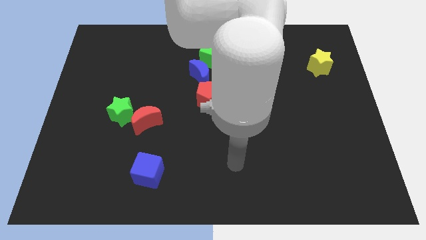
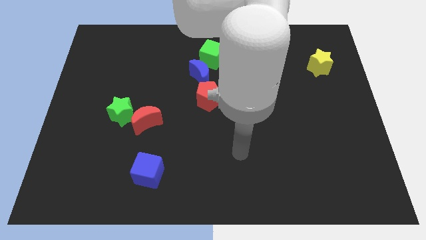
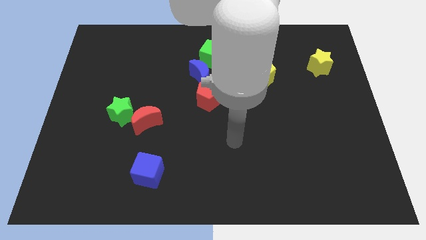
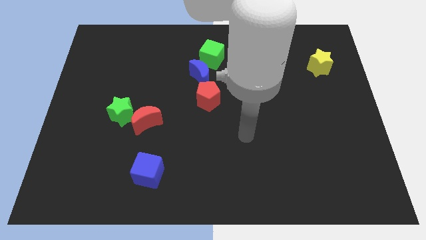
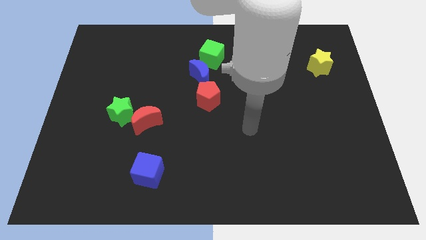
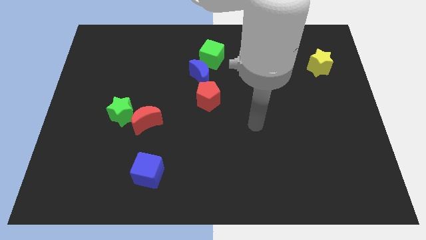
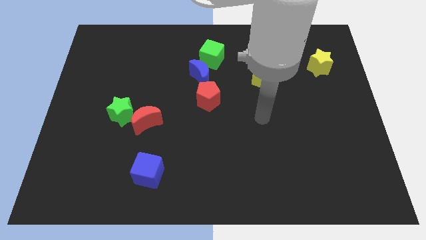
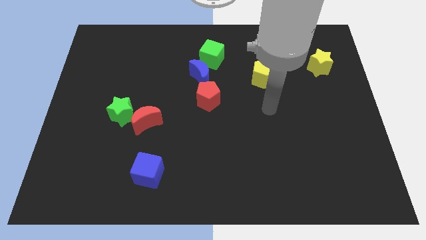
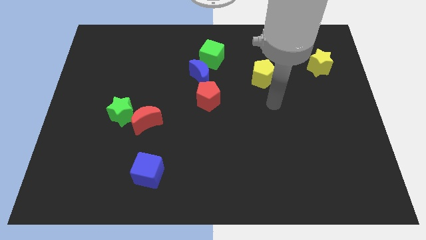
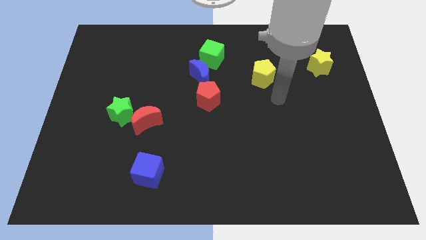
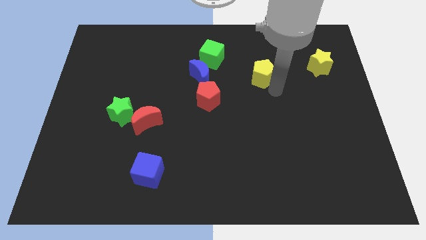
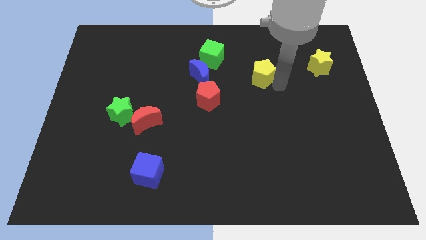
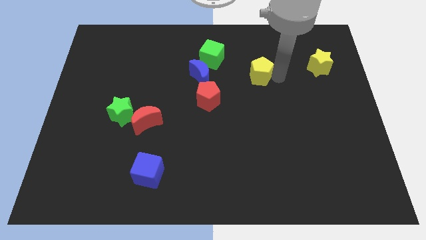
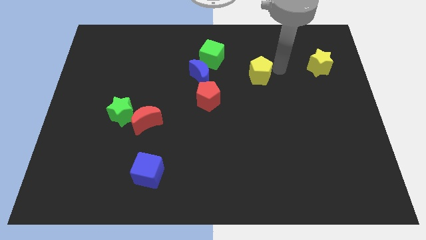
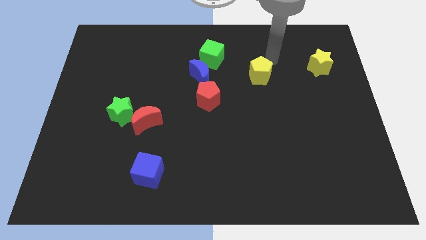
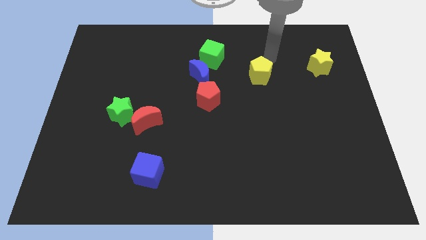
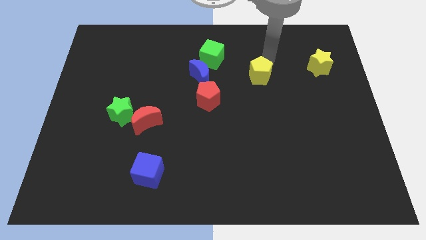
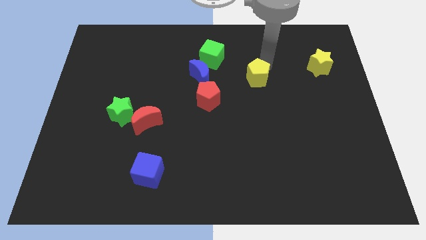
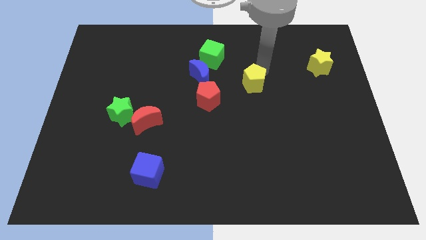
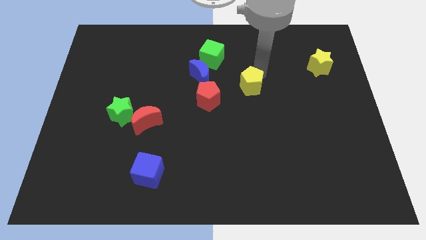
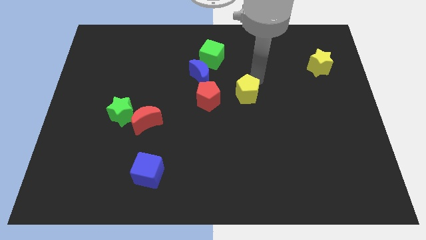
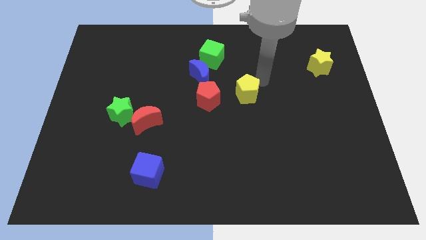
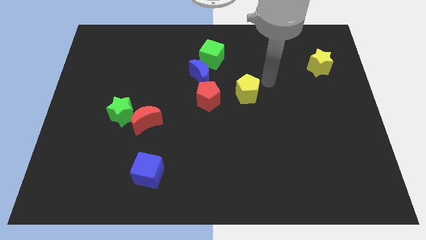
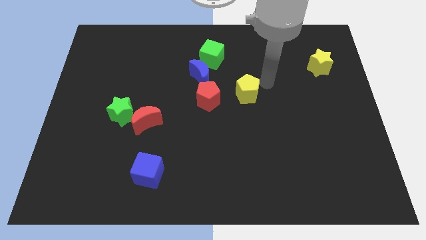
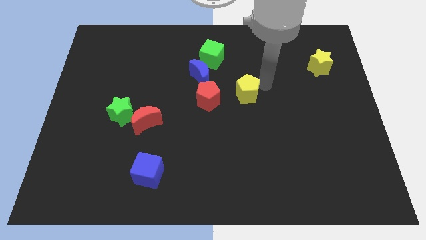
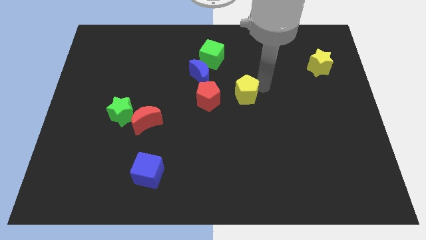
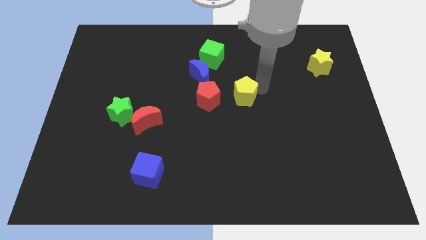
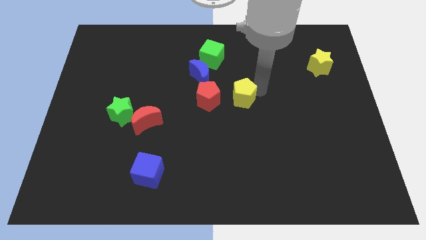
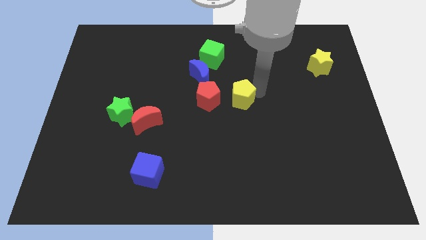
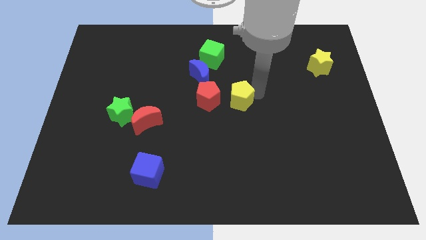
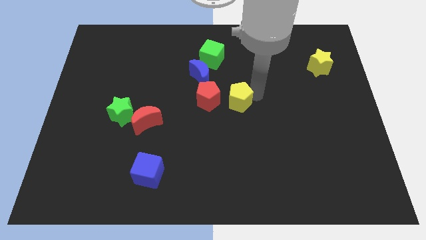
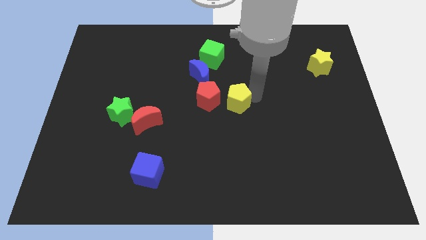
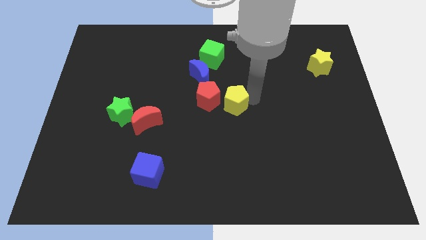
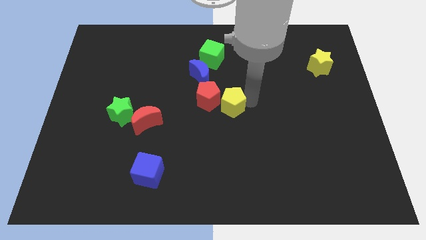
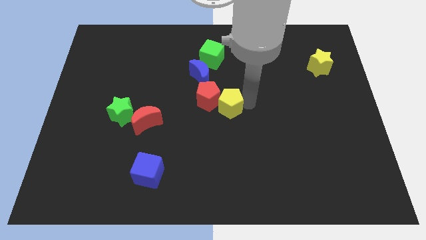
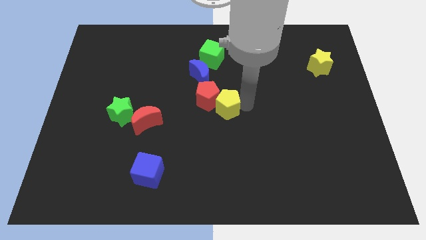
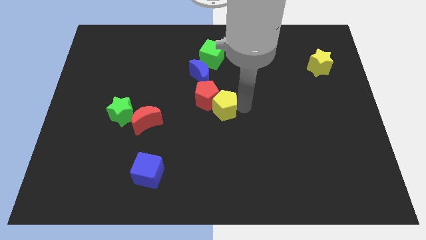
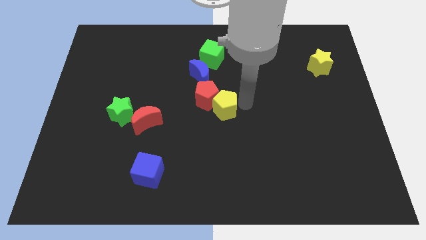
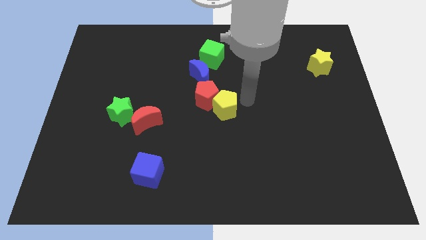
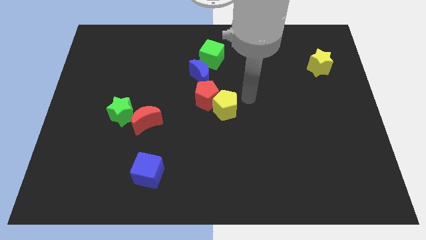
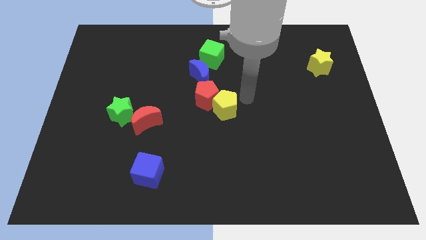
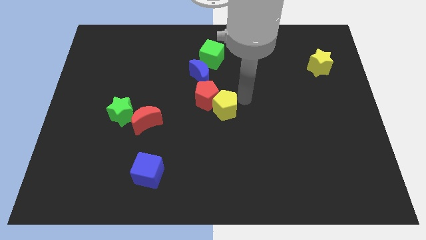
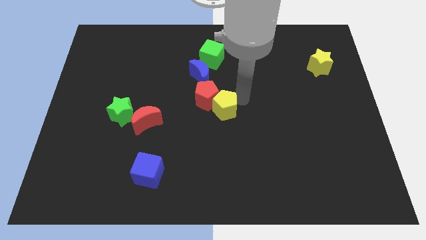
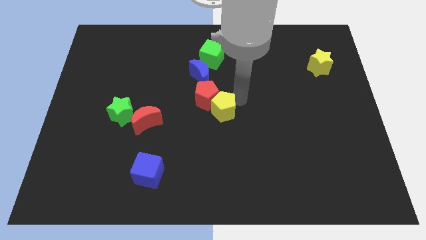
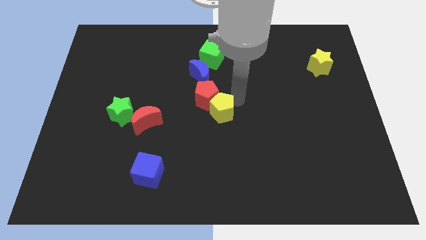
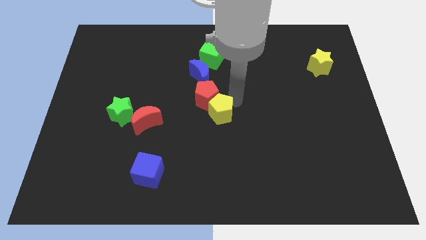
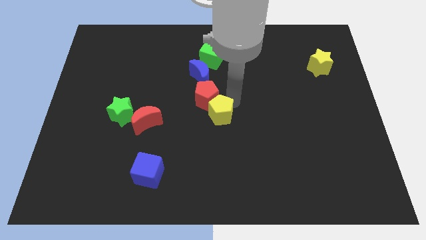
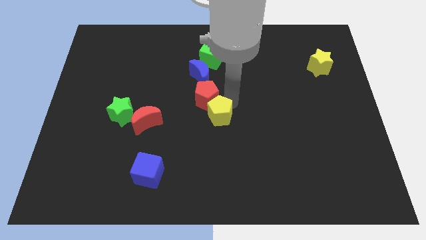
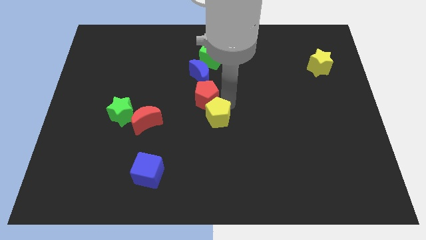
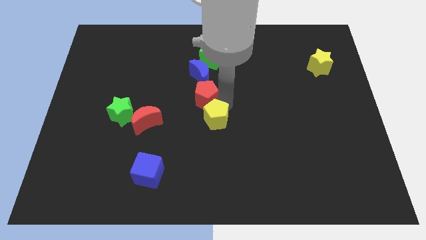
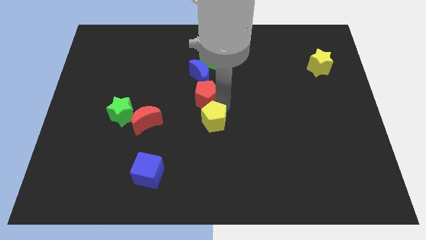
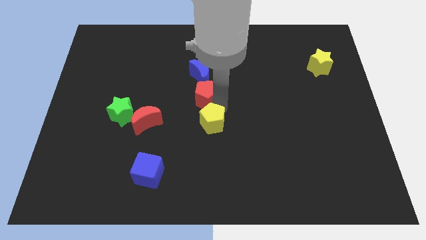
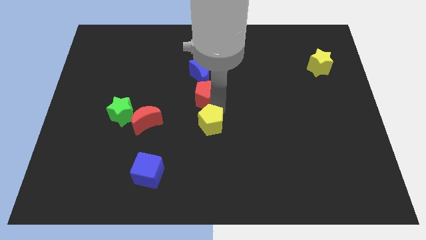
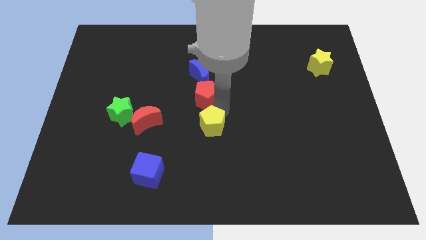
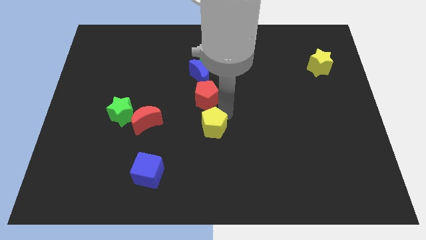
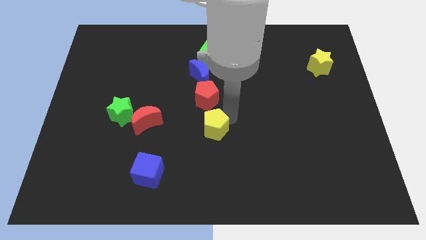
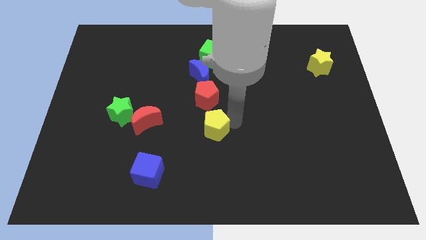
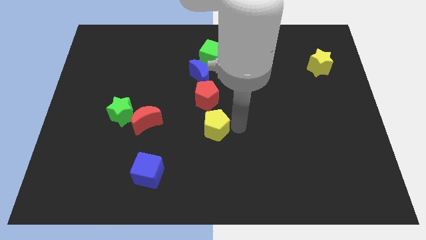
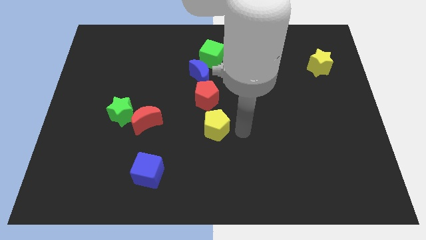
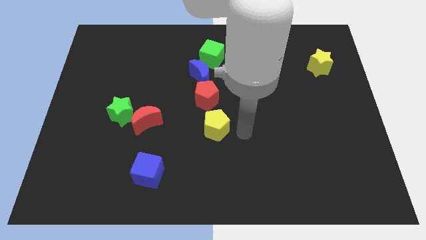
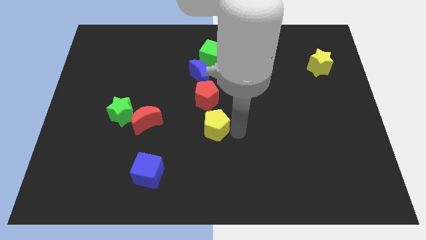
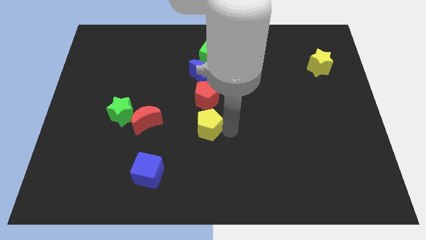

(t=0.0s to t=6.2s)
slide the yellow pentagon diagonally downwards and left

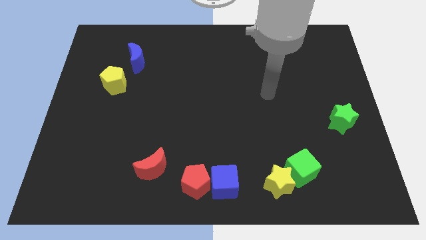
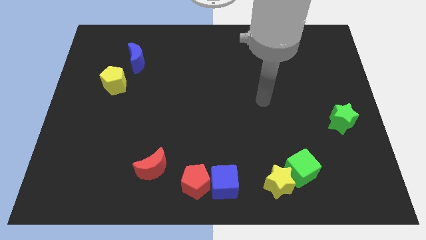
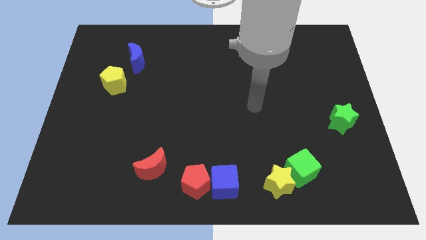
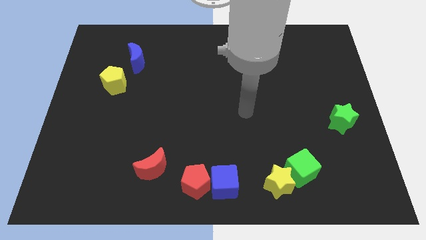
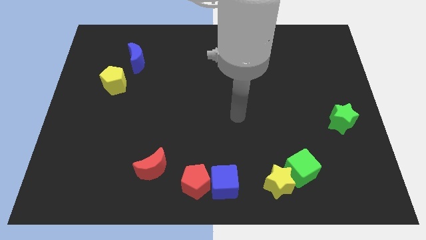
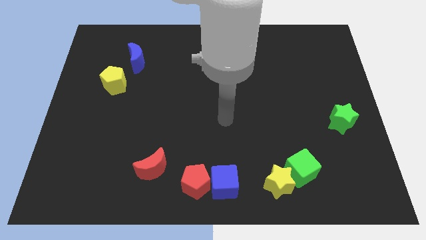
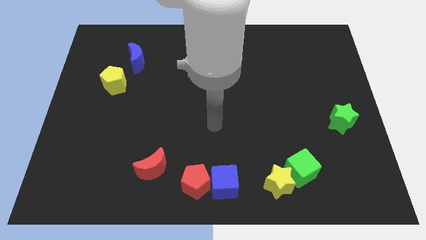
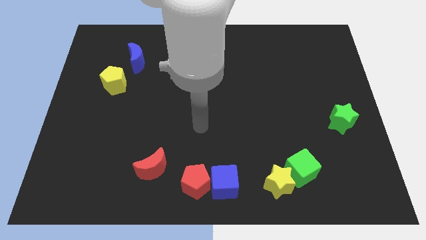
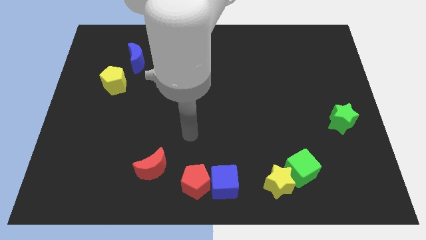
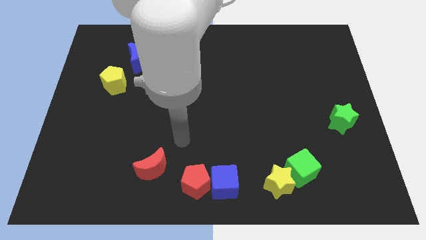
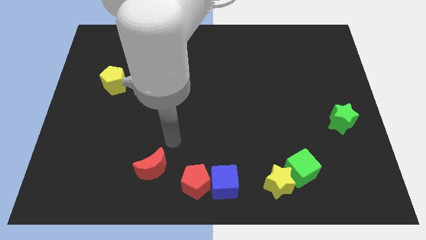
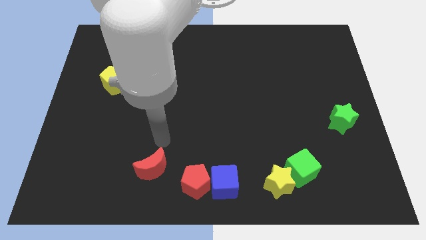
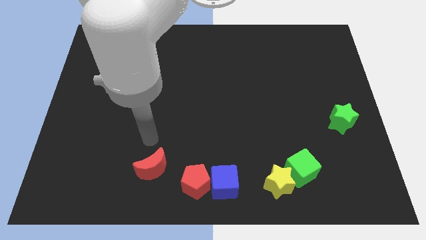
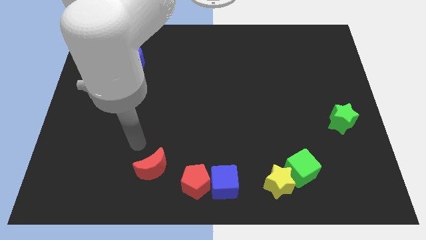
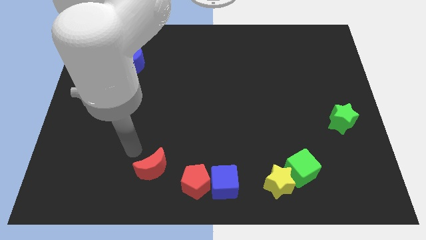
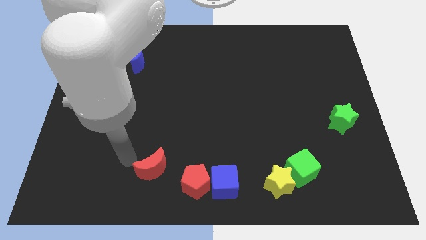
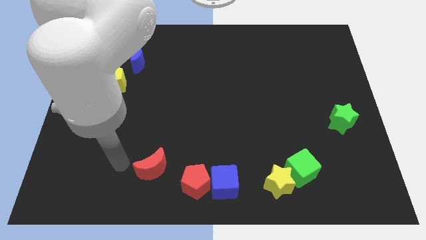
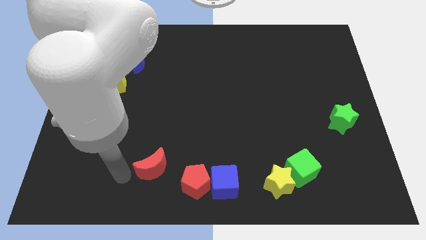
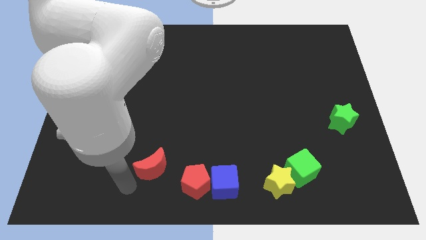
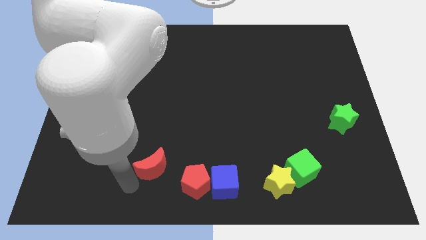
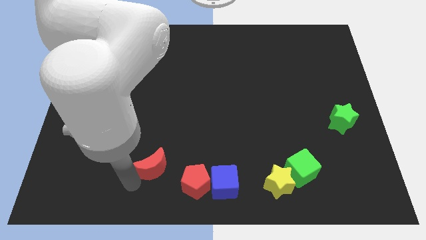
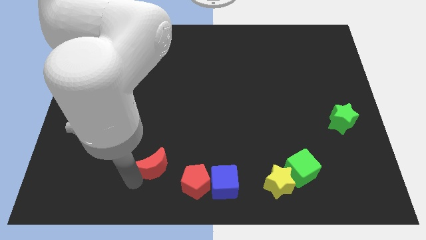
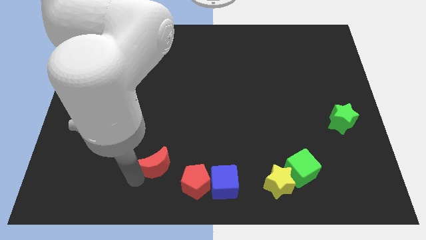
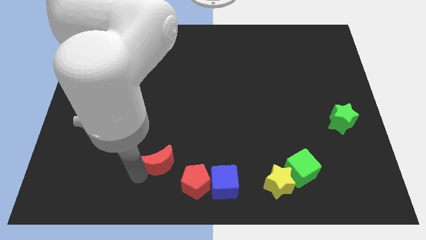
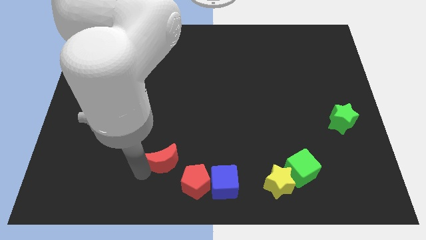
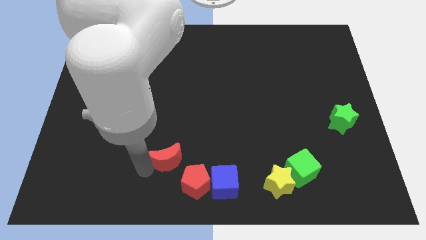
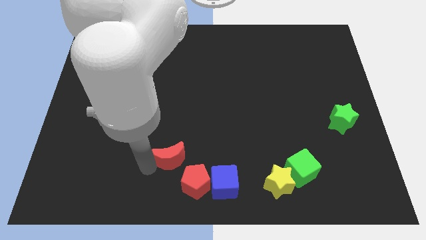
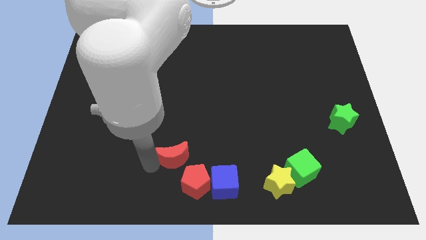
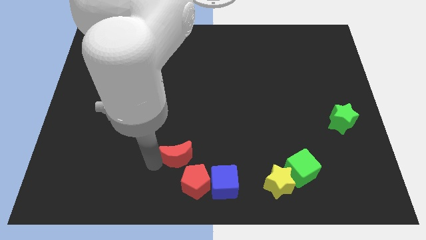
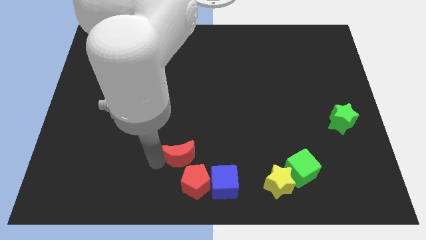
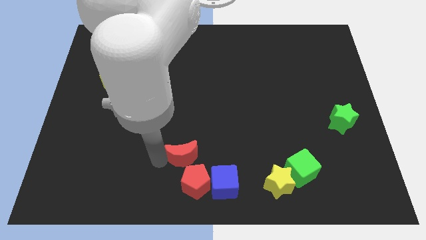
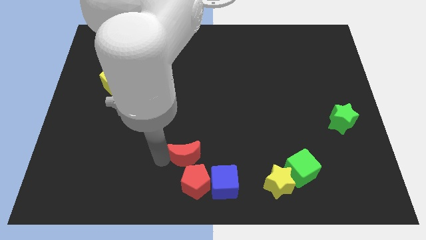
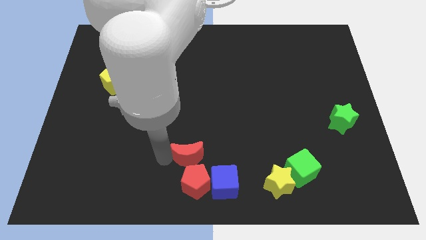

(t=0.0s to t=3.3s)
slide the red moon a bit upwards and right
